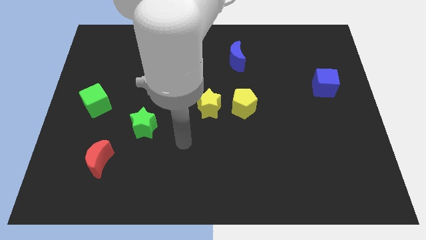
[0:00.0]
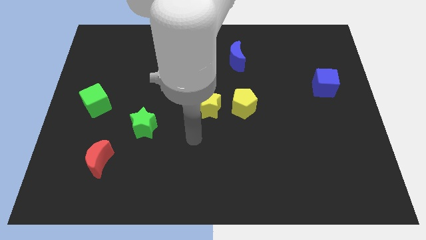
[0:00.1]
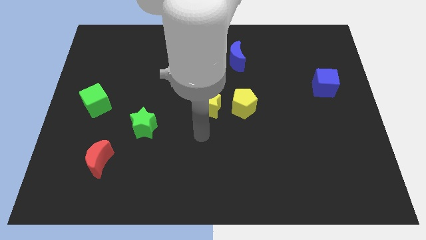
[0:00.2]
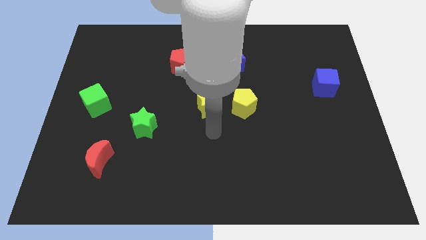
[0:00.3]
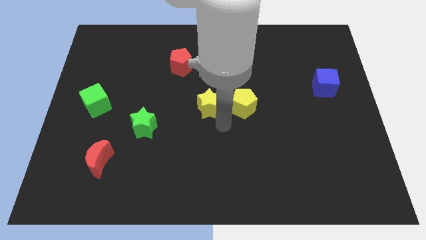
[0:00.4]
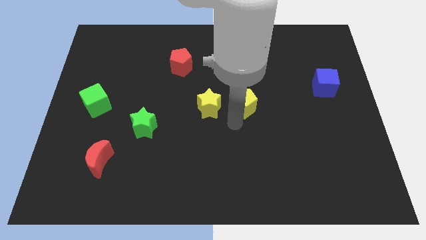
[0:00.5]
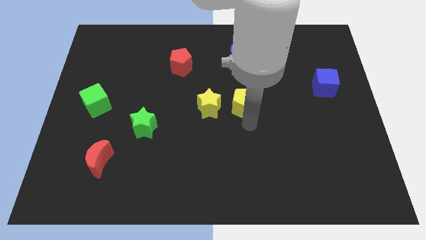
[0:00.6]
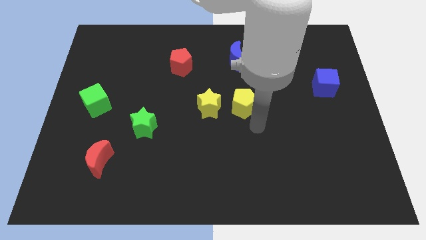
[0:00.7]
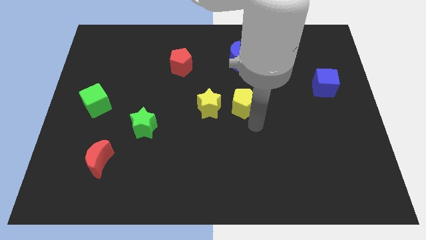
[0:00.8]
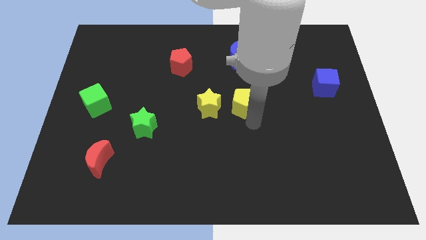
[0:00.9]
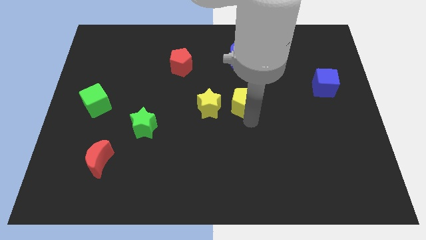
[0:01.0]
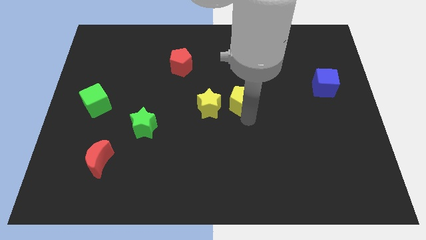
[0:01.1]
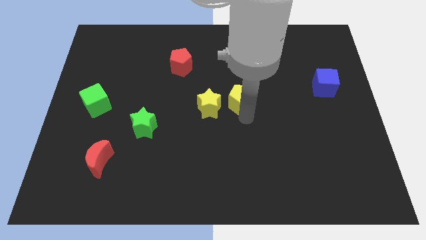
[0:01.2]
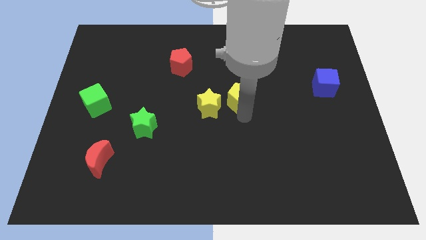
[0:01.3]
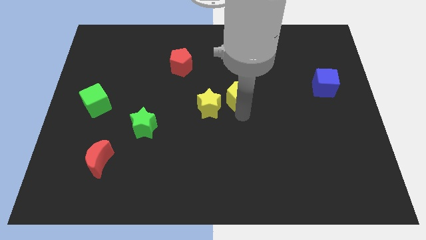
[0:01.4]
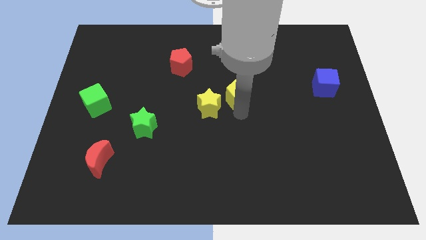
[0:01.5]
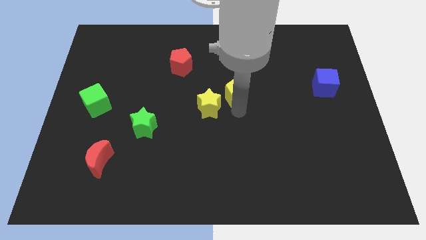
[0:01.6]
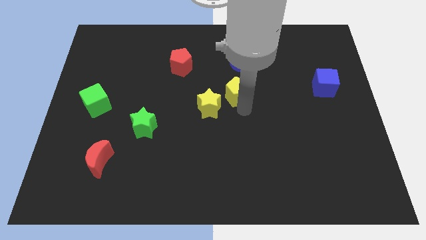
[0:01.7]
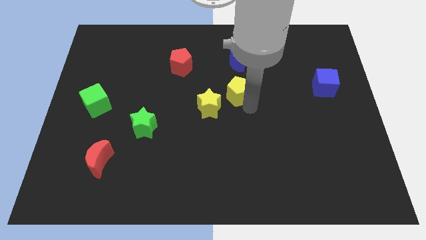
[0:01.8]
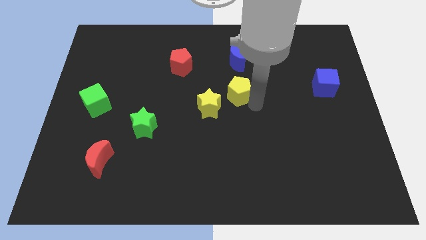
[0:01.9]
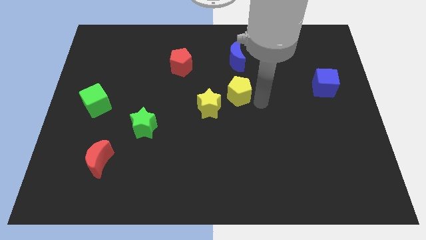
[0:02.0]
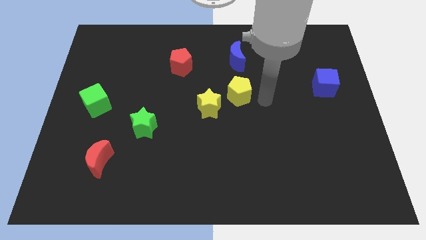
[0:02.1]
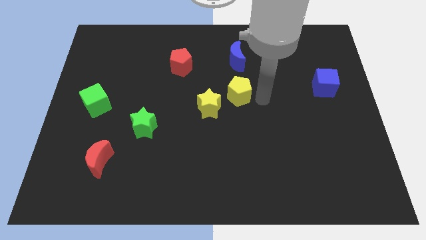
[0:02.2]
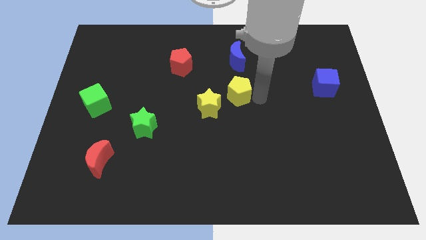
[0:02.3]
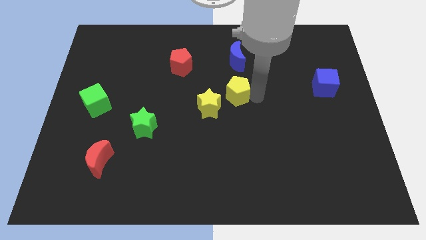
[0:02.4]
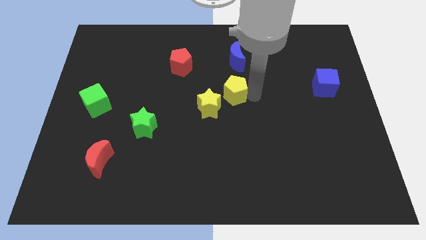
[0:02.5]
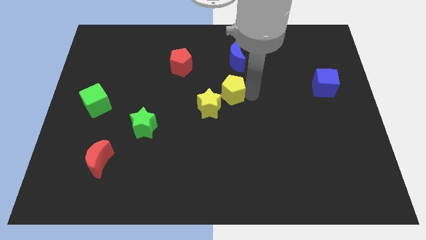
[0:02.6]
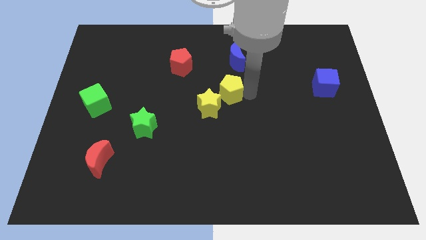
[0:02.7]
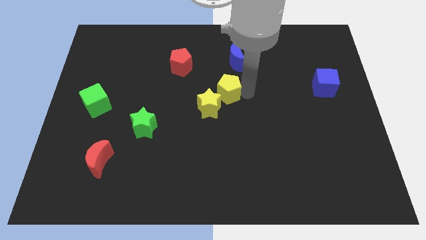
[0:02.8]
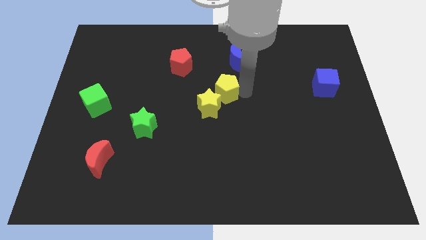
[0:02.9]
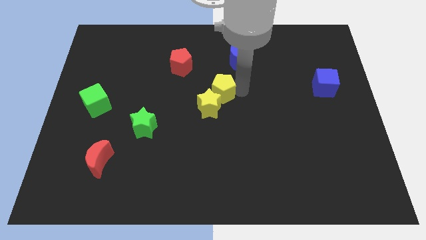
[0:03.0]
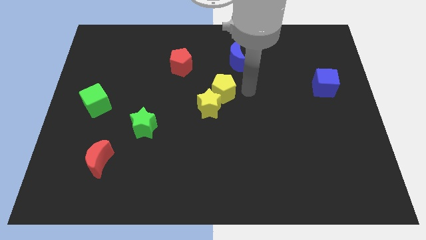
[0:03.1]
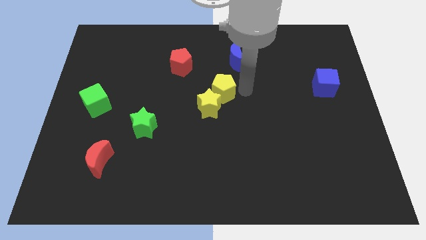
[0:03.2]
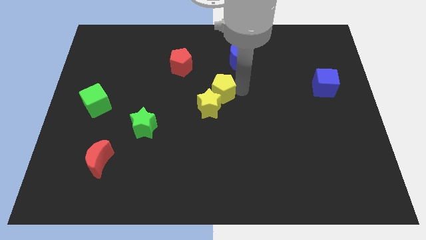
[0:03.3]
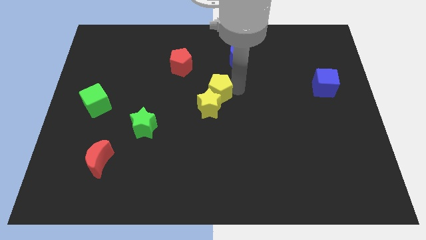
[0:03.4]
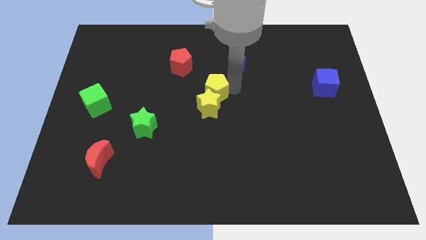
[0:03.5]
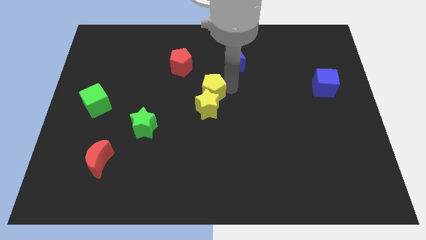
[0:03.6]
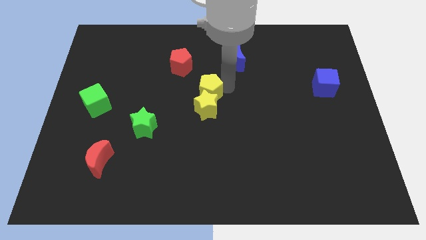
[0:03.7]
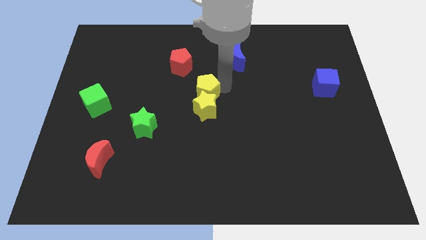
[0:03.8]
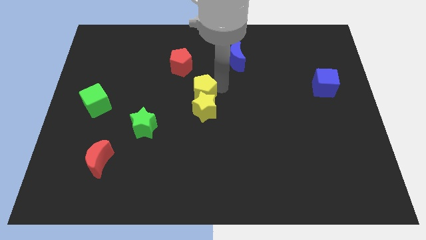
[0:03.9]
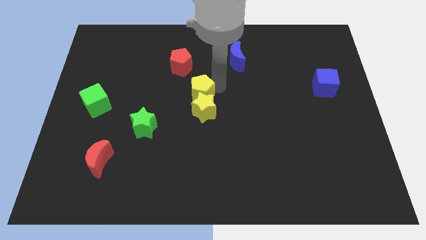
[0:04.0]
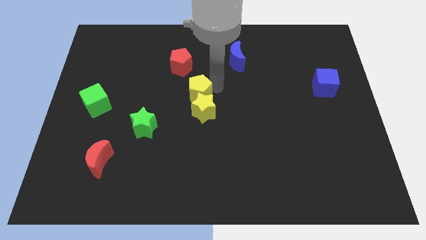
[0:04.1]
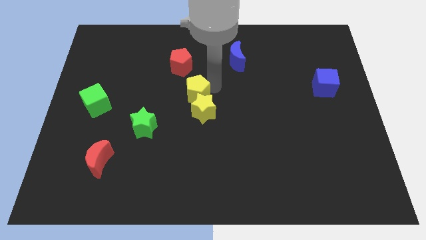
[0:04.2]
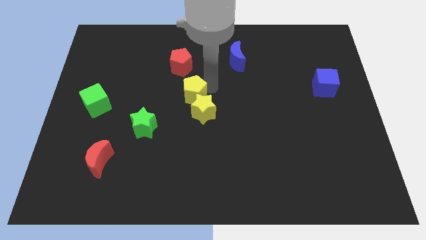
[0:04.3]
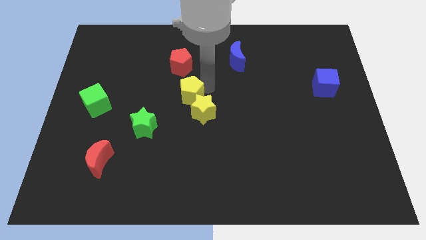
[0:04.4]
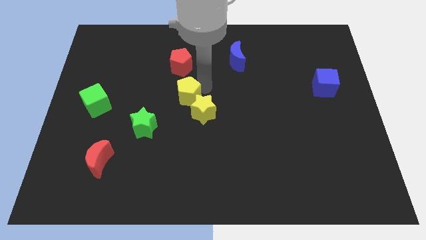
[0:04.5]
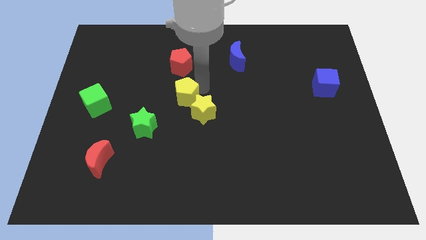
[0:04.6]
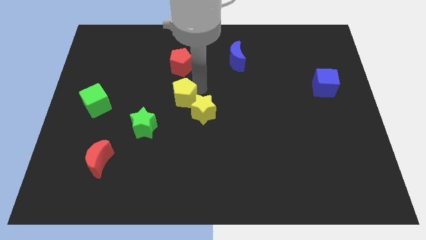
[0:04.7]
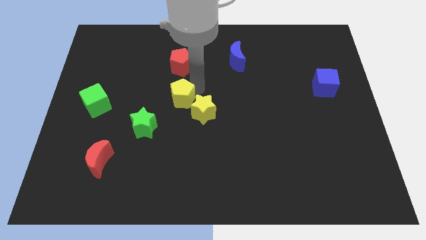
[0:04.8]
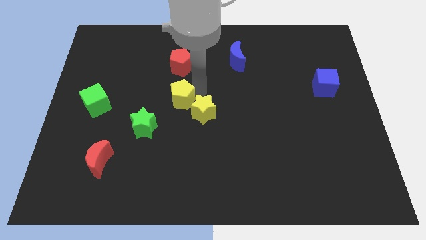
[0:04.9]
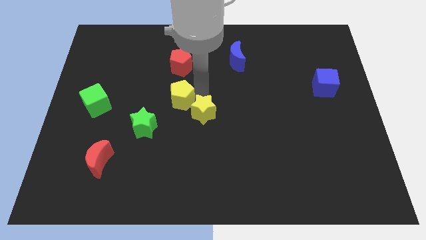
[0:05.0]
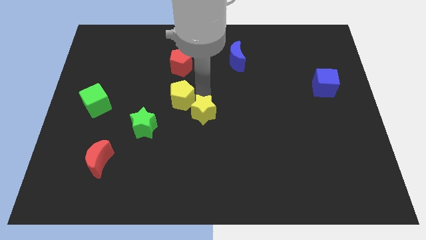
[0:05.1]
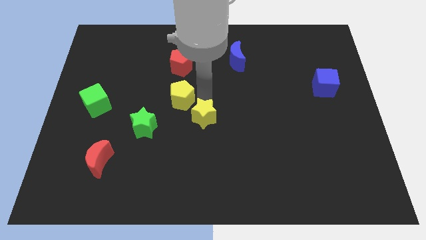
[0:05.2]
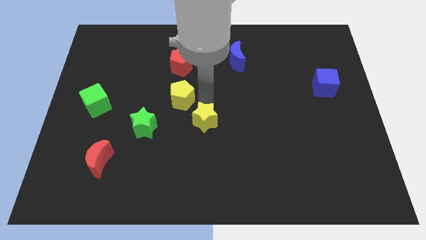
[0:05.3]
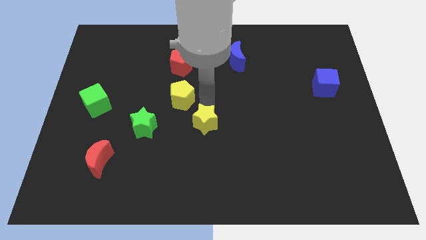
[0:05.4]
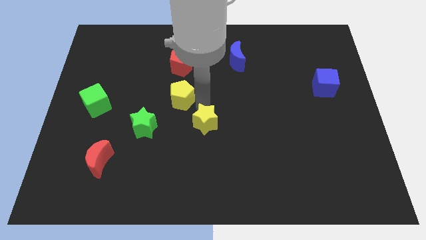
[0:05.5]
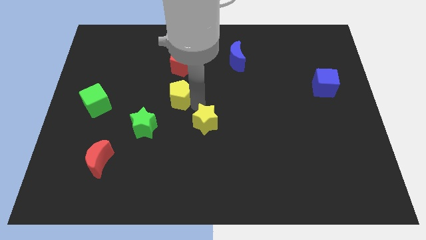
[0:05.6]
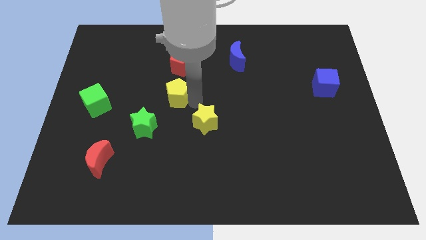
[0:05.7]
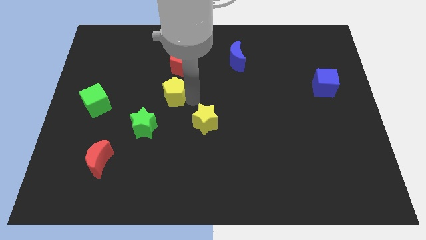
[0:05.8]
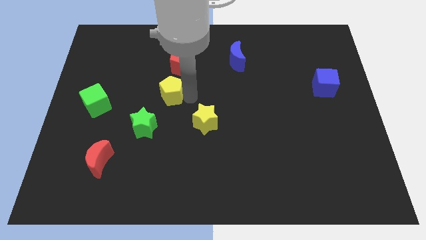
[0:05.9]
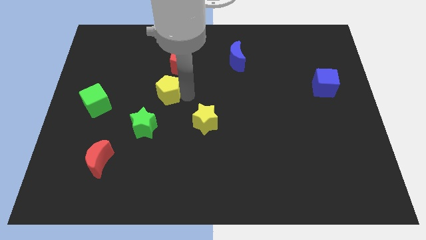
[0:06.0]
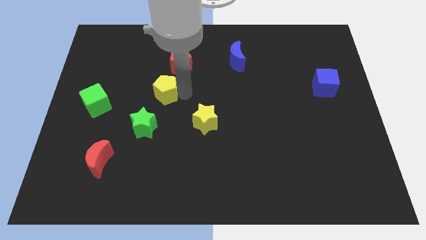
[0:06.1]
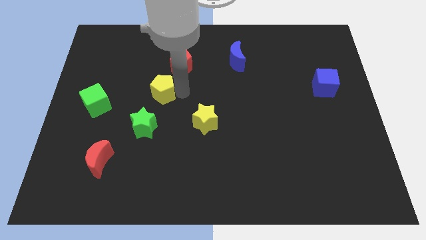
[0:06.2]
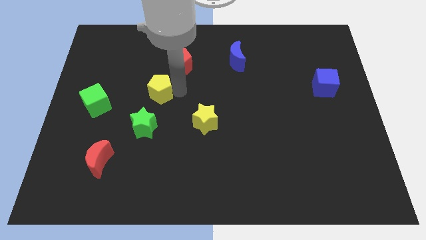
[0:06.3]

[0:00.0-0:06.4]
put the yellow pentagon just right of the green cube
